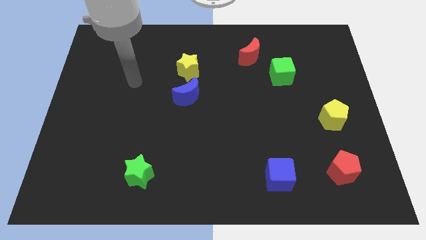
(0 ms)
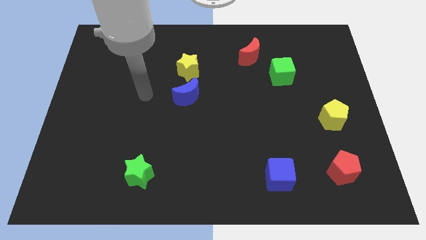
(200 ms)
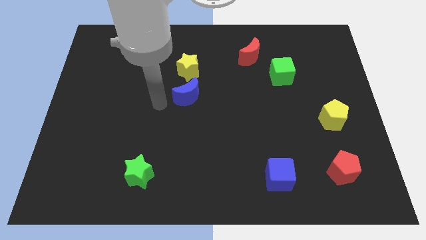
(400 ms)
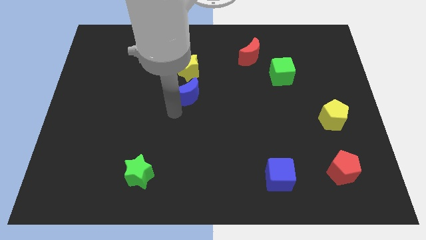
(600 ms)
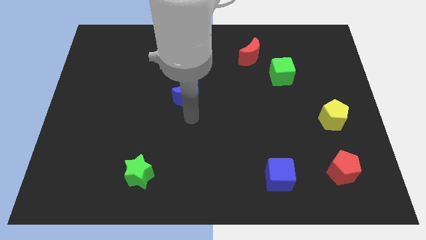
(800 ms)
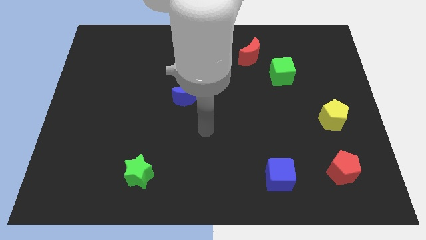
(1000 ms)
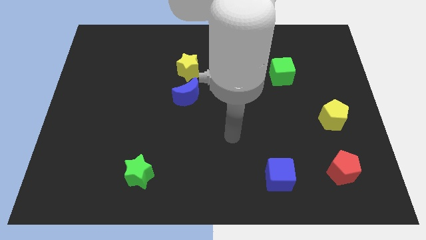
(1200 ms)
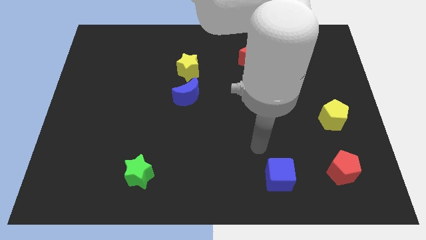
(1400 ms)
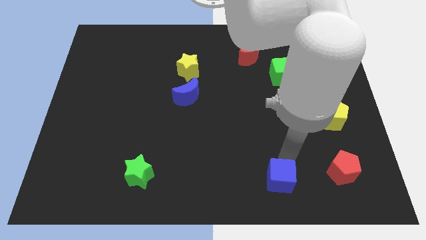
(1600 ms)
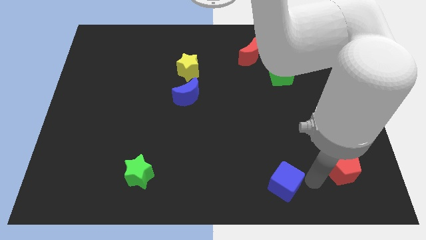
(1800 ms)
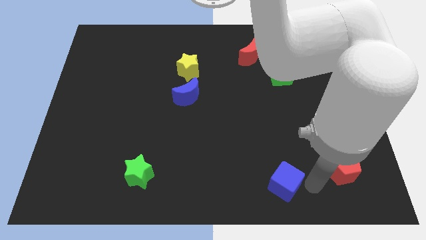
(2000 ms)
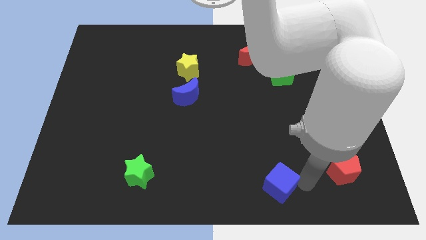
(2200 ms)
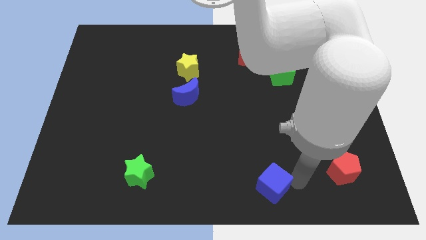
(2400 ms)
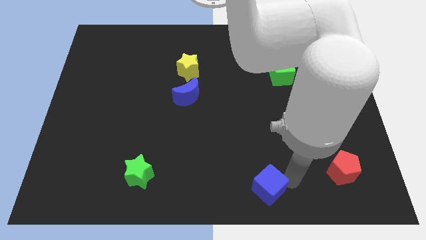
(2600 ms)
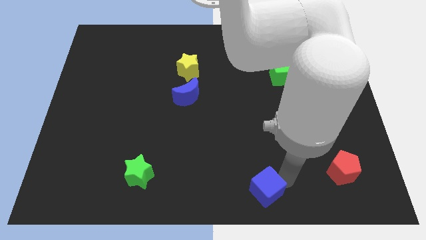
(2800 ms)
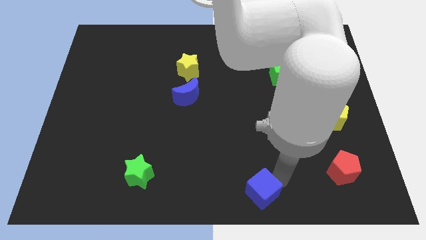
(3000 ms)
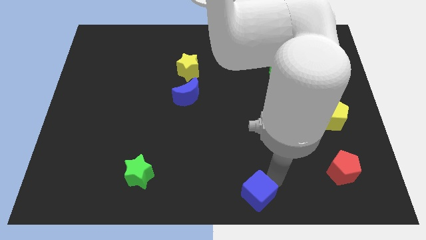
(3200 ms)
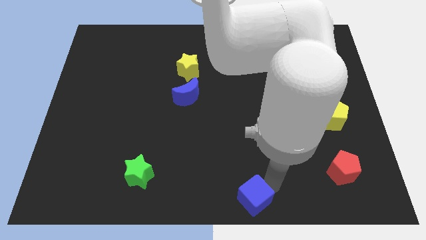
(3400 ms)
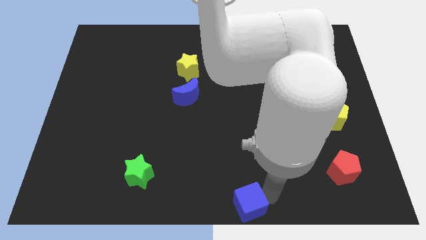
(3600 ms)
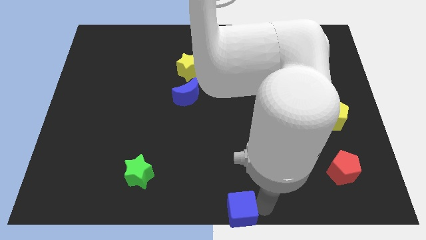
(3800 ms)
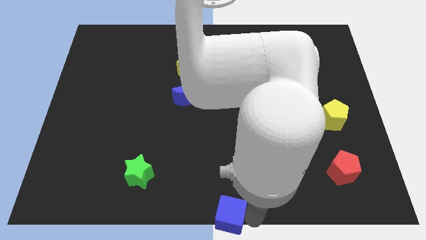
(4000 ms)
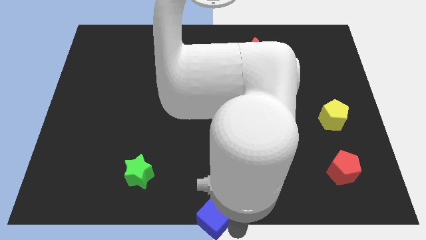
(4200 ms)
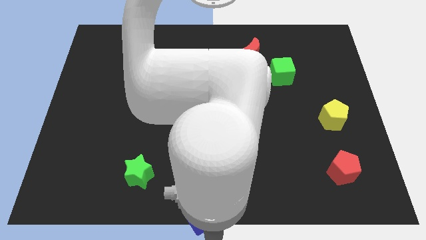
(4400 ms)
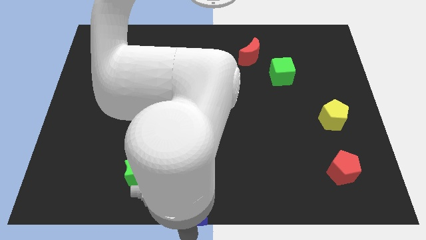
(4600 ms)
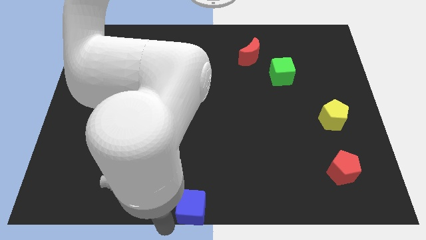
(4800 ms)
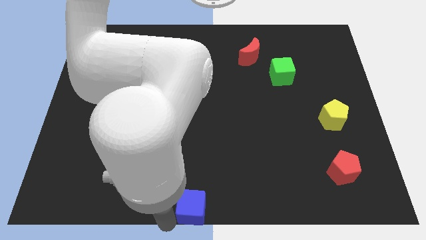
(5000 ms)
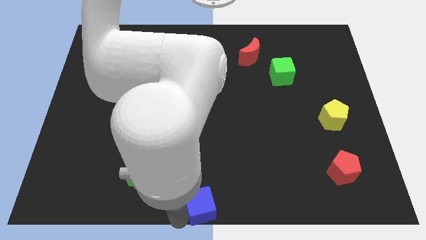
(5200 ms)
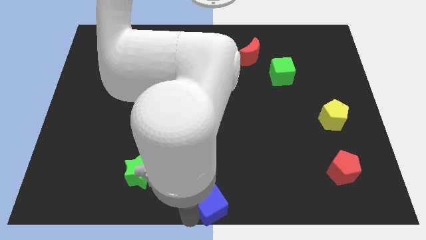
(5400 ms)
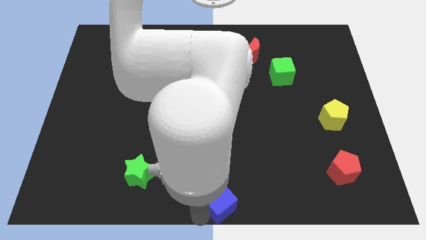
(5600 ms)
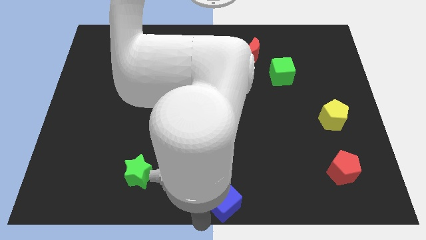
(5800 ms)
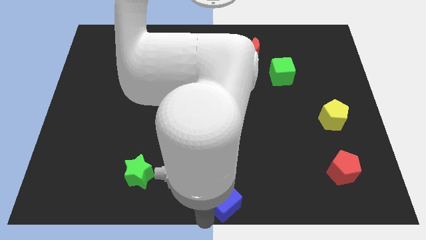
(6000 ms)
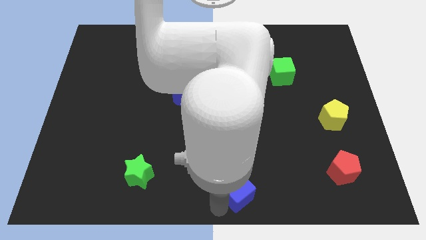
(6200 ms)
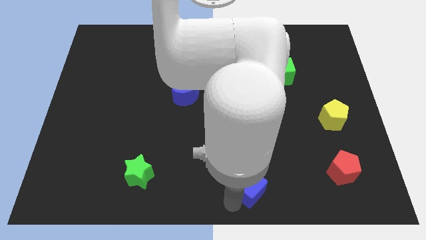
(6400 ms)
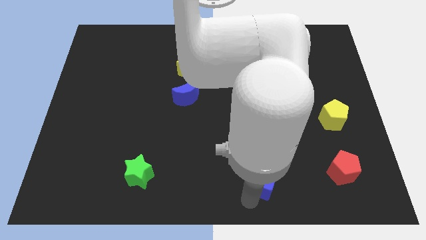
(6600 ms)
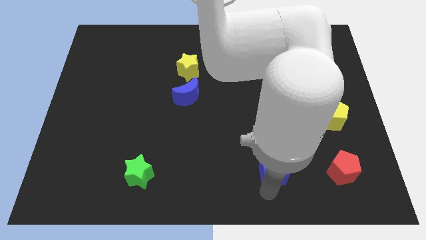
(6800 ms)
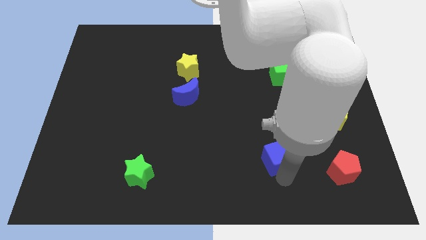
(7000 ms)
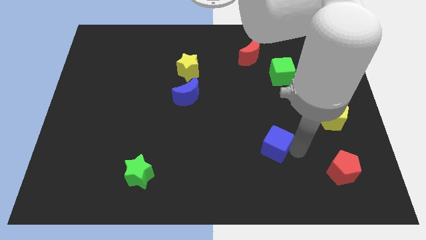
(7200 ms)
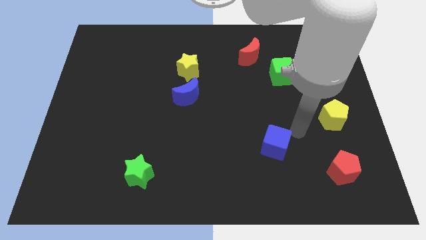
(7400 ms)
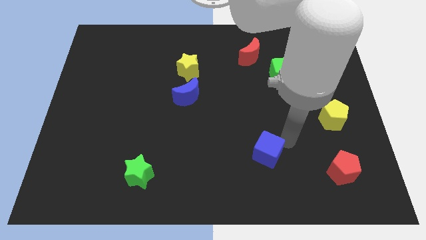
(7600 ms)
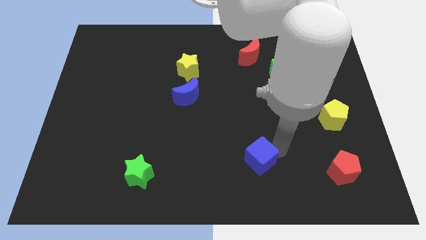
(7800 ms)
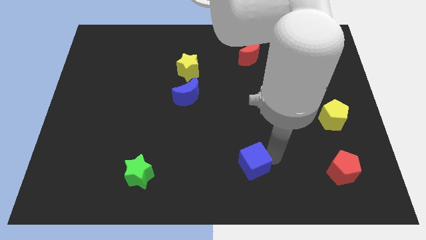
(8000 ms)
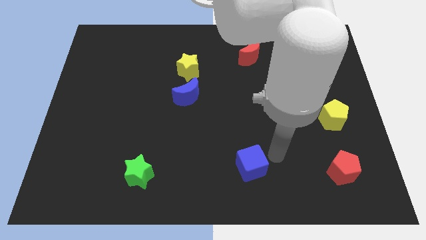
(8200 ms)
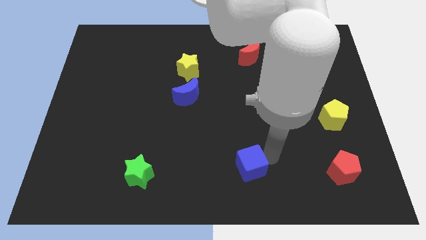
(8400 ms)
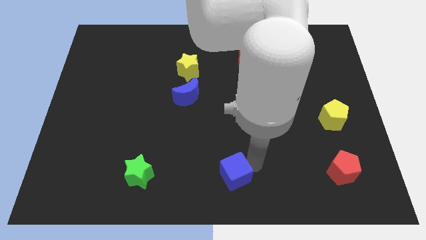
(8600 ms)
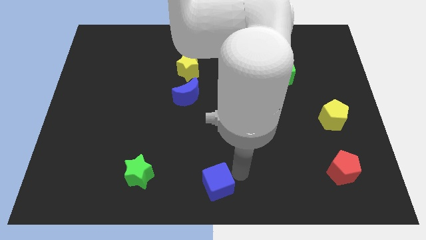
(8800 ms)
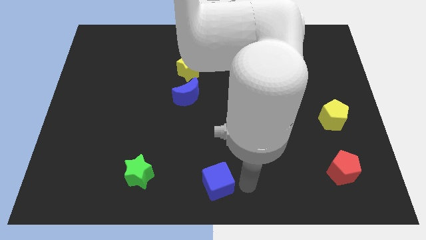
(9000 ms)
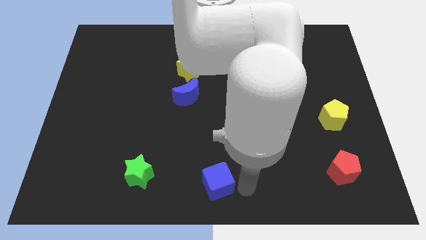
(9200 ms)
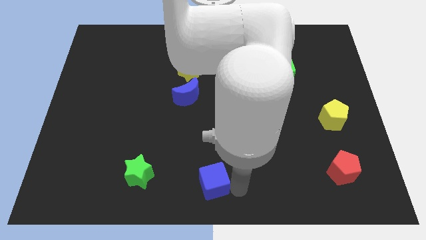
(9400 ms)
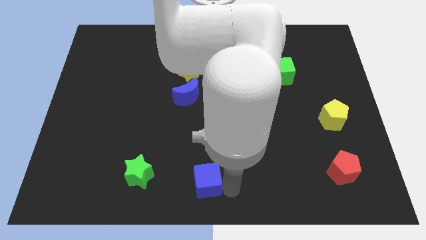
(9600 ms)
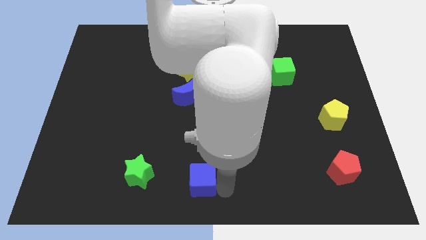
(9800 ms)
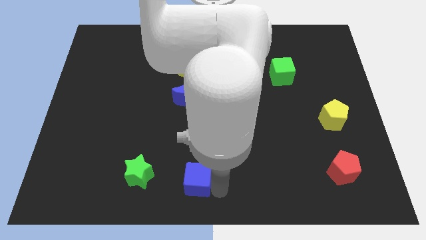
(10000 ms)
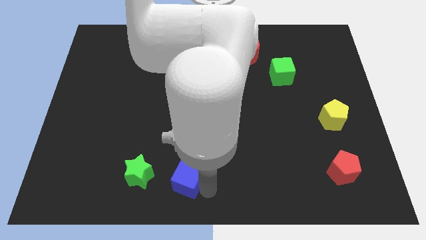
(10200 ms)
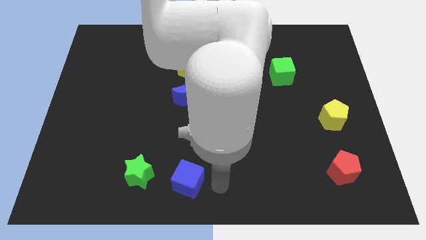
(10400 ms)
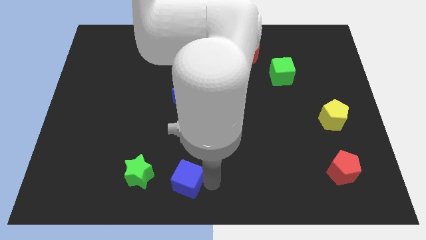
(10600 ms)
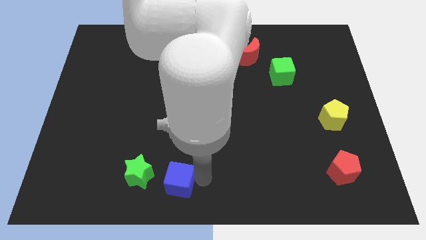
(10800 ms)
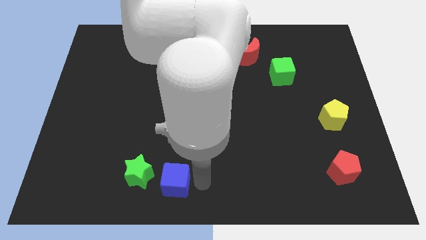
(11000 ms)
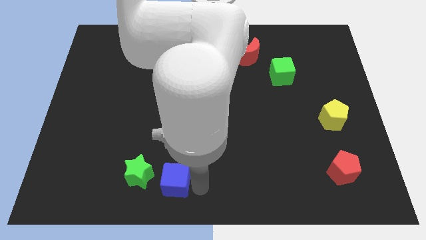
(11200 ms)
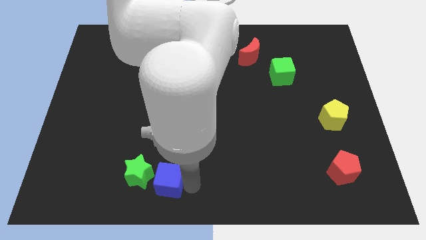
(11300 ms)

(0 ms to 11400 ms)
move the blue cube close to the green star

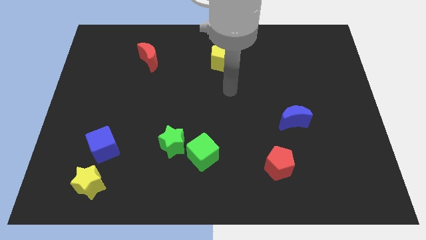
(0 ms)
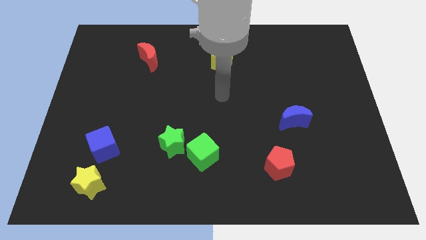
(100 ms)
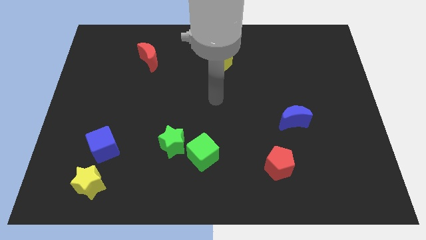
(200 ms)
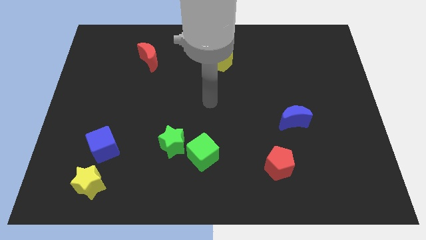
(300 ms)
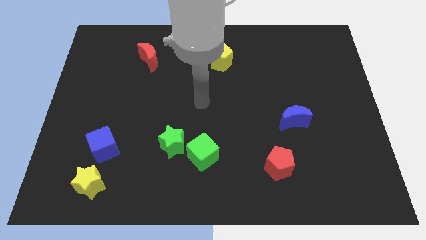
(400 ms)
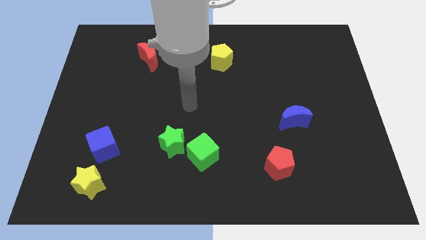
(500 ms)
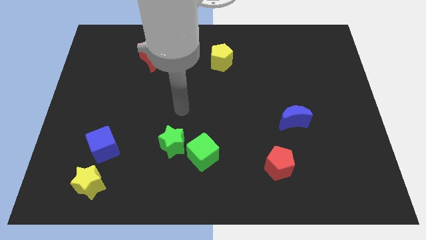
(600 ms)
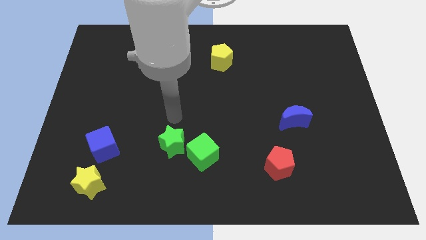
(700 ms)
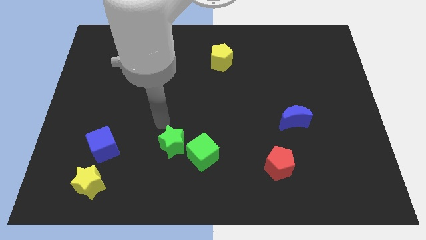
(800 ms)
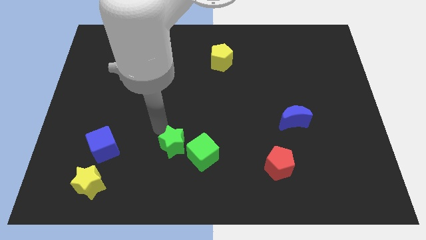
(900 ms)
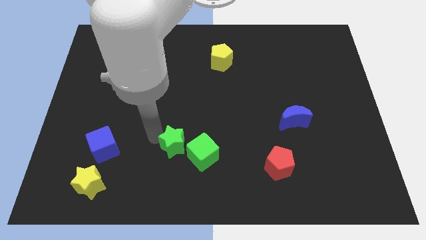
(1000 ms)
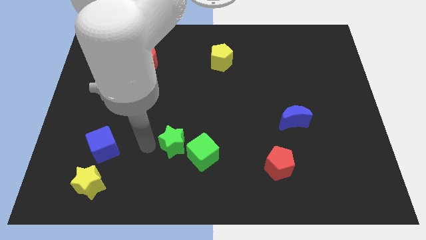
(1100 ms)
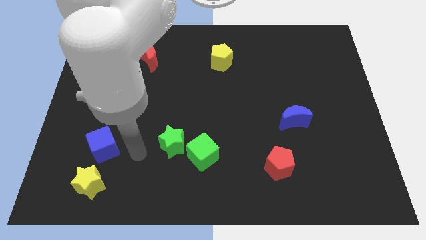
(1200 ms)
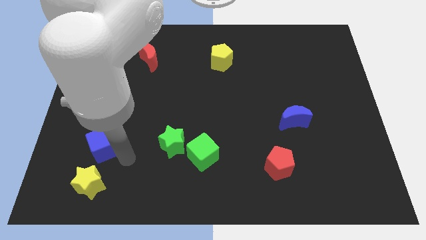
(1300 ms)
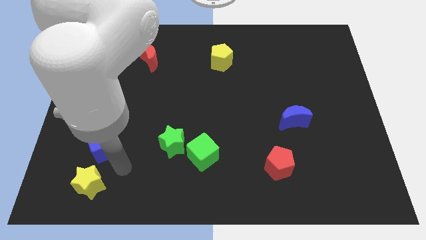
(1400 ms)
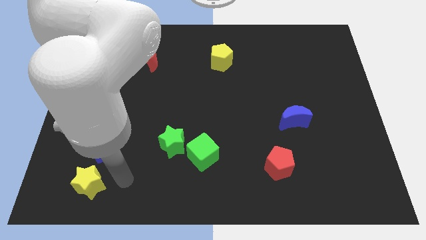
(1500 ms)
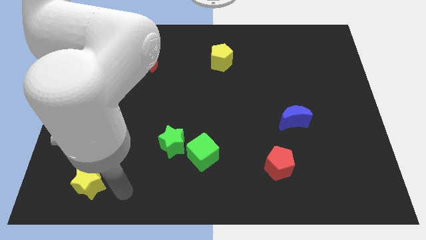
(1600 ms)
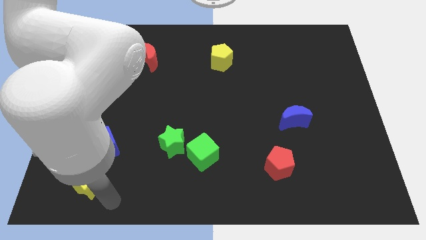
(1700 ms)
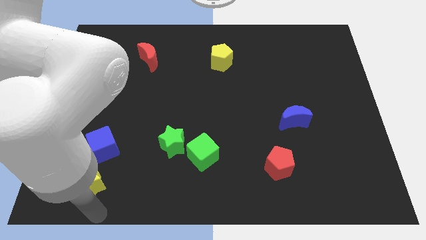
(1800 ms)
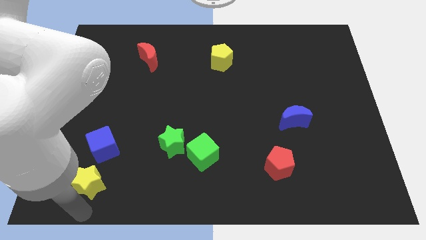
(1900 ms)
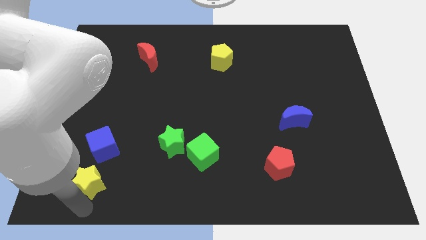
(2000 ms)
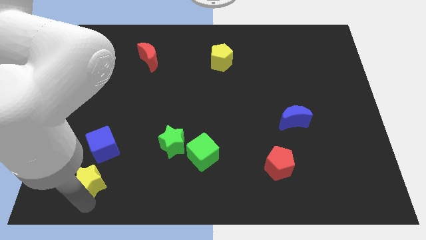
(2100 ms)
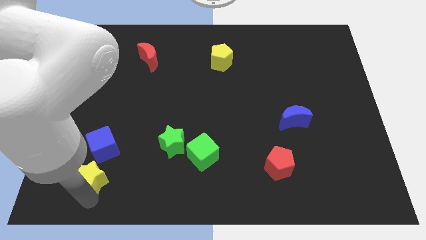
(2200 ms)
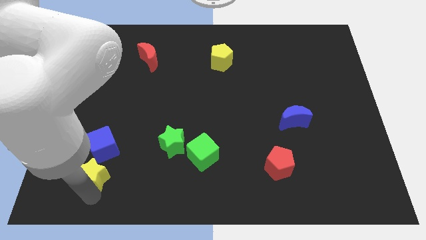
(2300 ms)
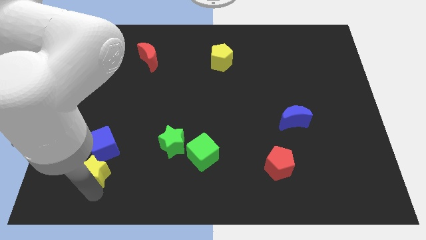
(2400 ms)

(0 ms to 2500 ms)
slide the yellow star close to the blue cube

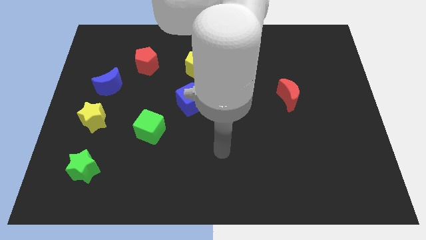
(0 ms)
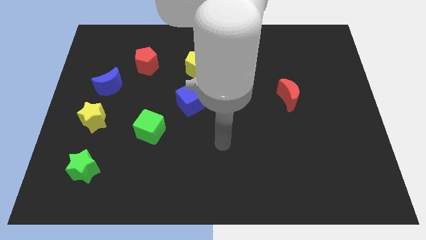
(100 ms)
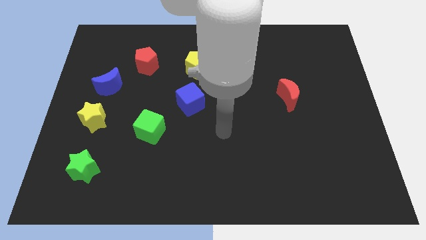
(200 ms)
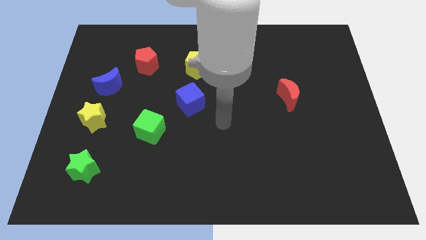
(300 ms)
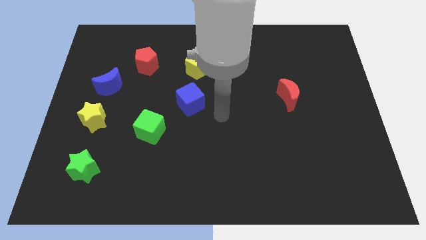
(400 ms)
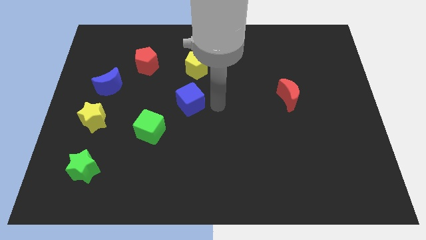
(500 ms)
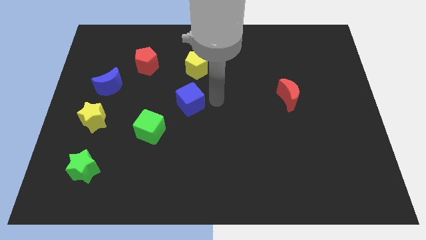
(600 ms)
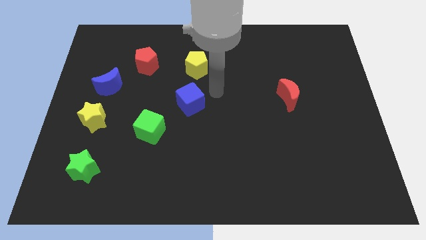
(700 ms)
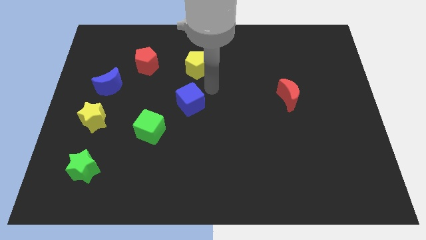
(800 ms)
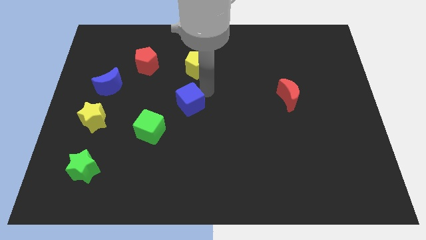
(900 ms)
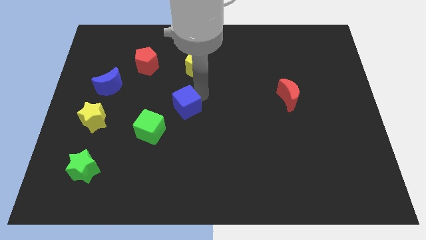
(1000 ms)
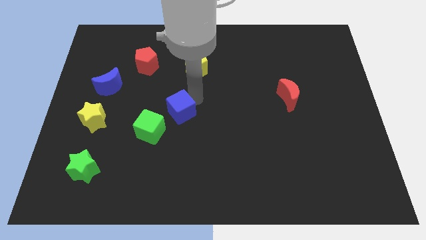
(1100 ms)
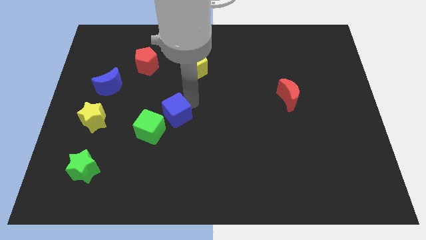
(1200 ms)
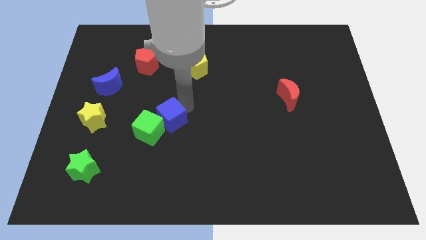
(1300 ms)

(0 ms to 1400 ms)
slide the blue cube close to the green cube
